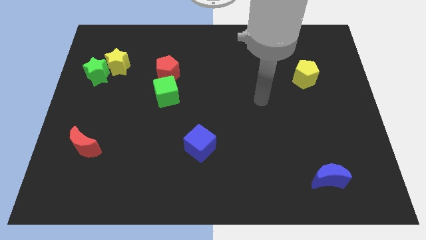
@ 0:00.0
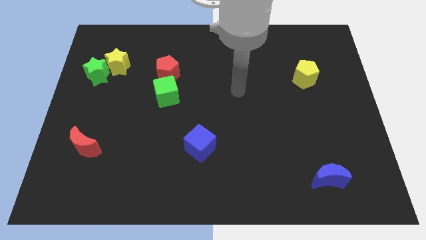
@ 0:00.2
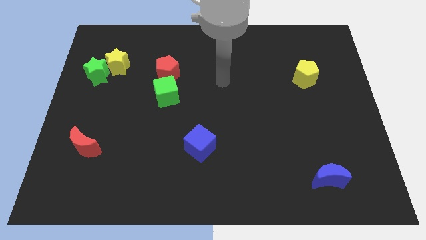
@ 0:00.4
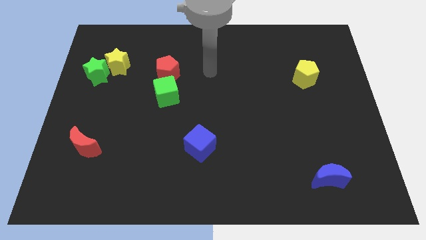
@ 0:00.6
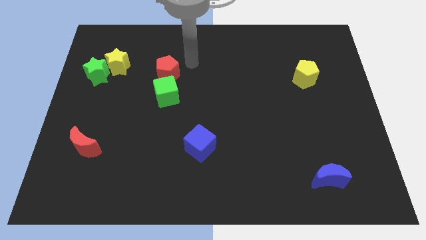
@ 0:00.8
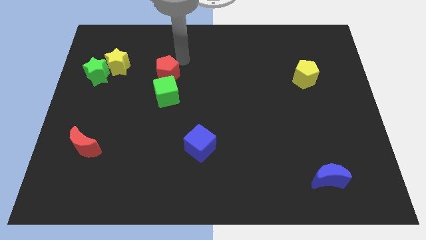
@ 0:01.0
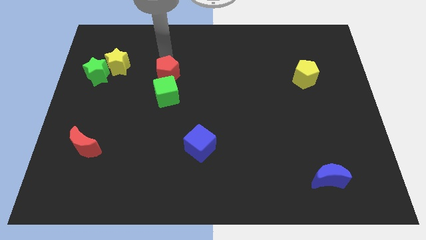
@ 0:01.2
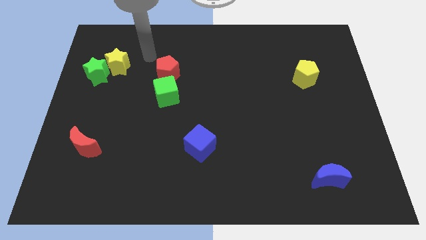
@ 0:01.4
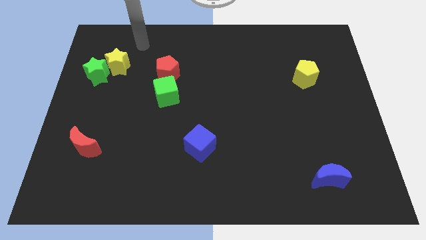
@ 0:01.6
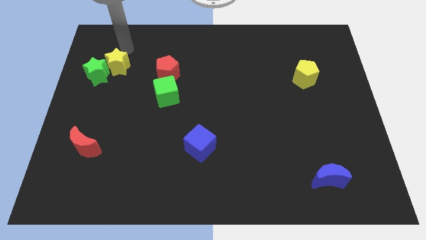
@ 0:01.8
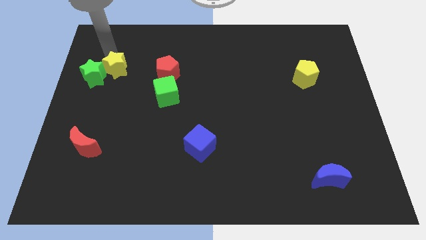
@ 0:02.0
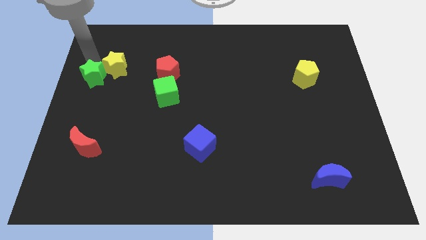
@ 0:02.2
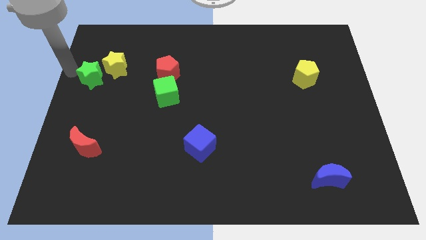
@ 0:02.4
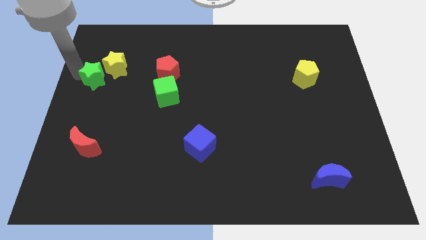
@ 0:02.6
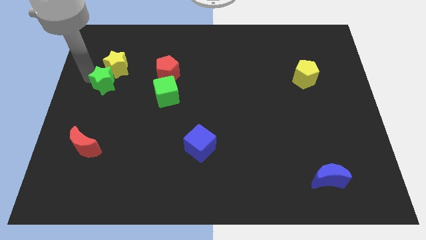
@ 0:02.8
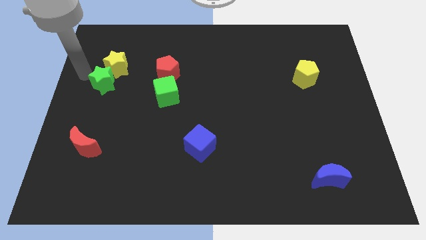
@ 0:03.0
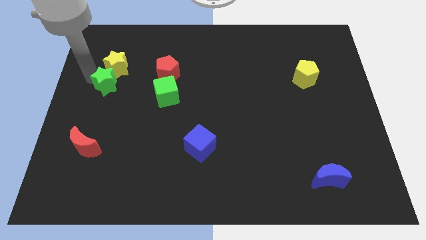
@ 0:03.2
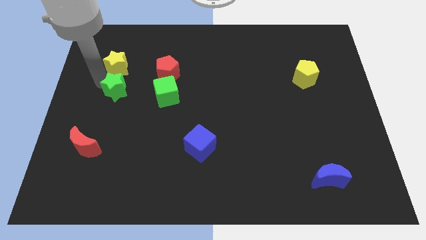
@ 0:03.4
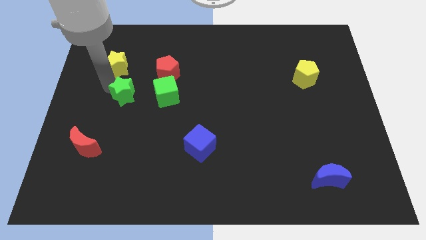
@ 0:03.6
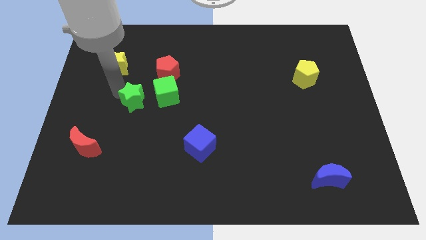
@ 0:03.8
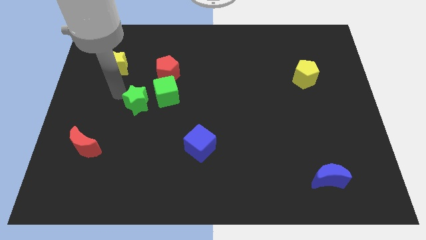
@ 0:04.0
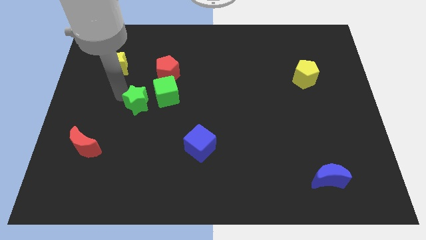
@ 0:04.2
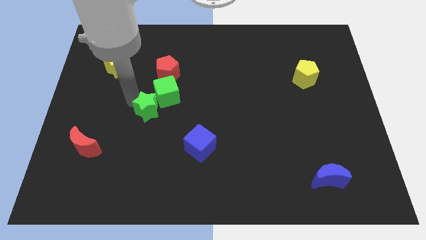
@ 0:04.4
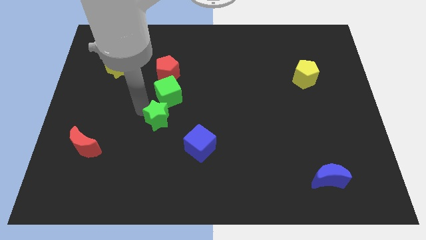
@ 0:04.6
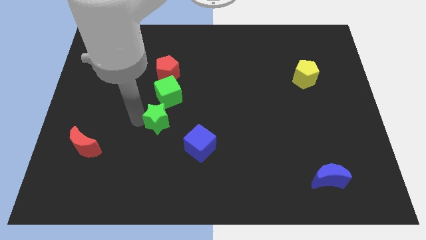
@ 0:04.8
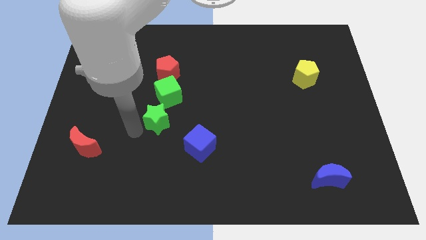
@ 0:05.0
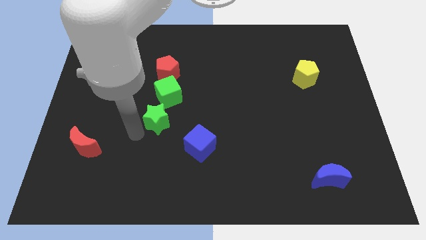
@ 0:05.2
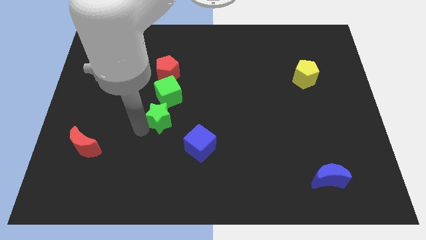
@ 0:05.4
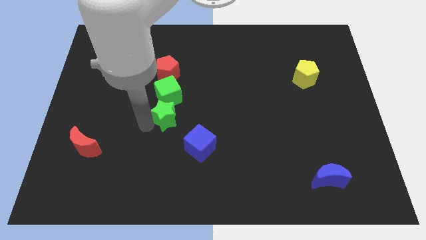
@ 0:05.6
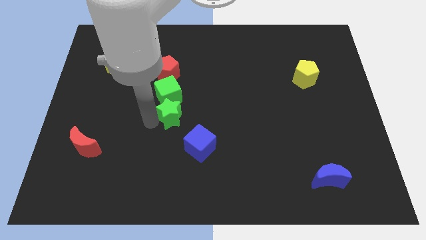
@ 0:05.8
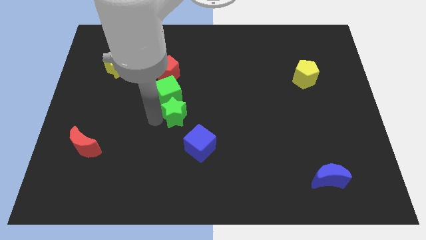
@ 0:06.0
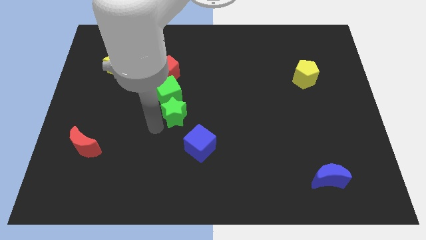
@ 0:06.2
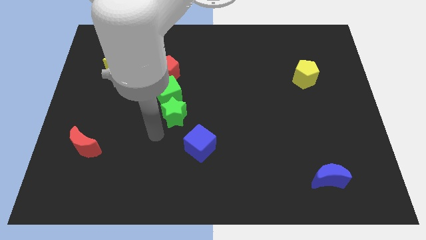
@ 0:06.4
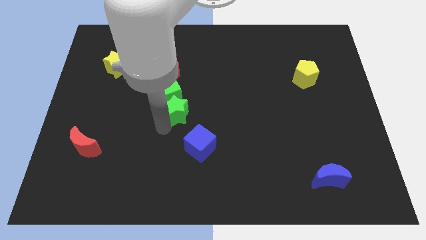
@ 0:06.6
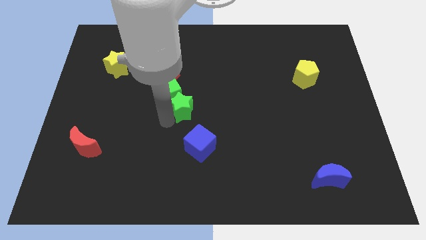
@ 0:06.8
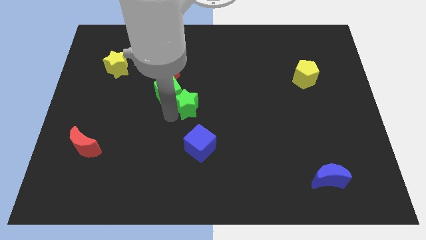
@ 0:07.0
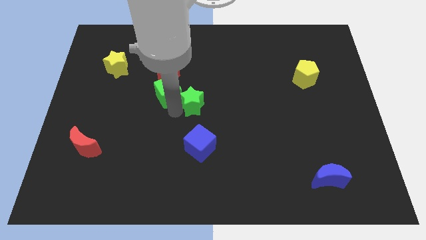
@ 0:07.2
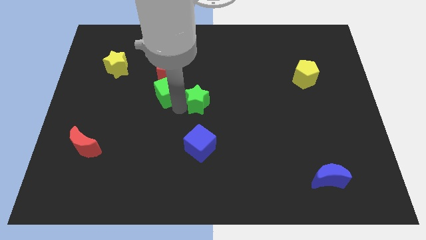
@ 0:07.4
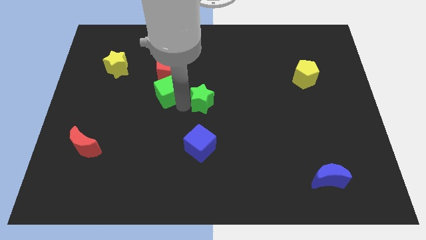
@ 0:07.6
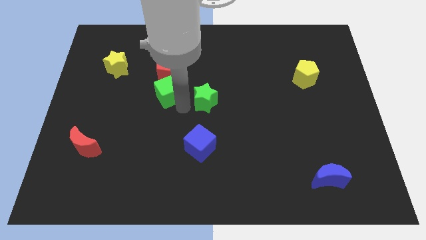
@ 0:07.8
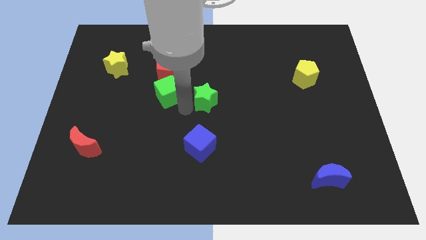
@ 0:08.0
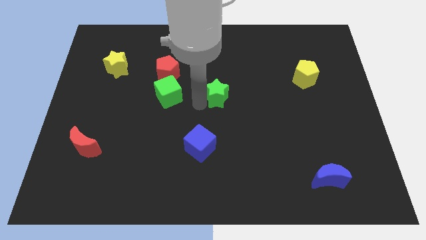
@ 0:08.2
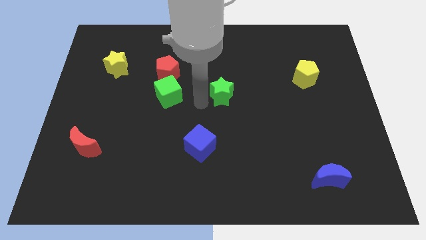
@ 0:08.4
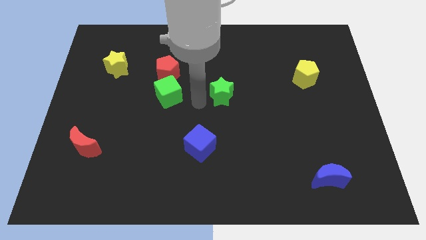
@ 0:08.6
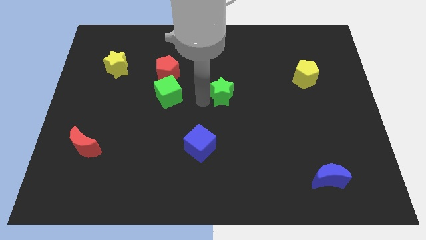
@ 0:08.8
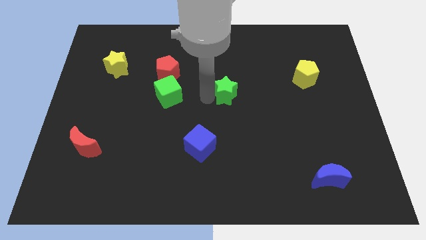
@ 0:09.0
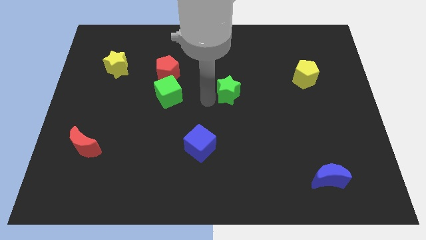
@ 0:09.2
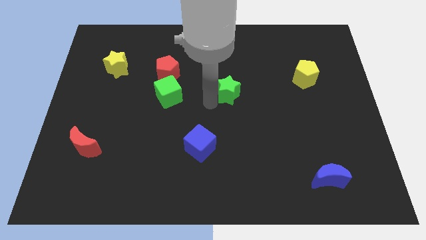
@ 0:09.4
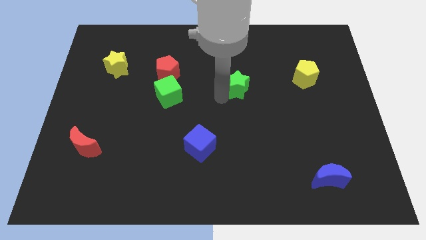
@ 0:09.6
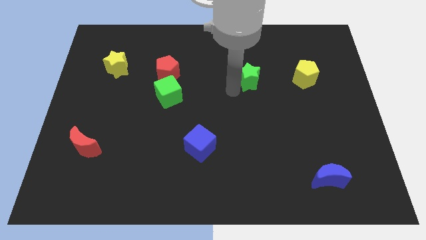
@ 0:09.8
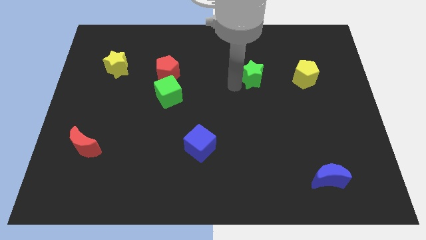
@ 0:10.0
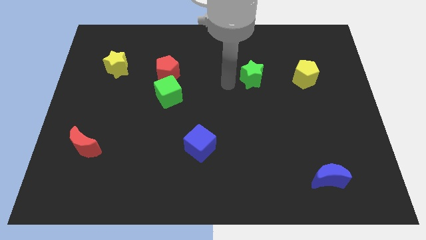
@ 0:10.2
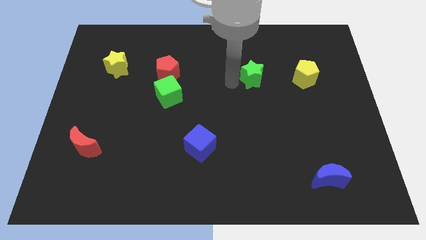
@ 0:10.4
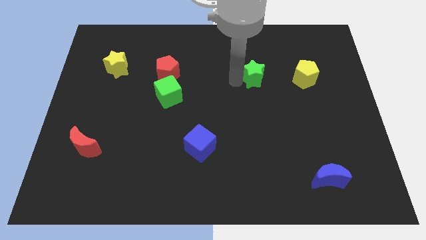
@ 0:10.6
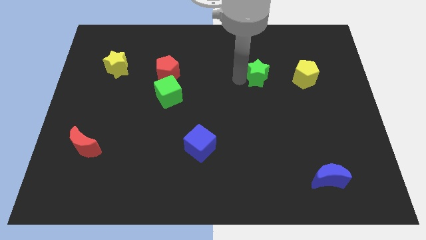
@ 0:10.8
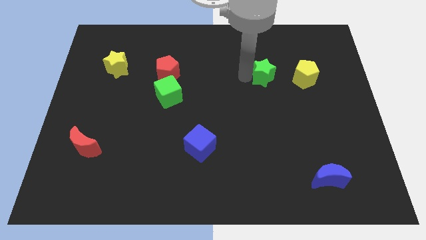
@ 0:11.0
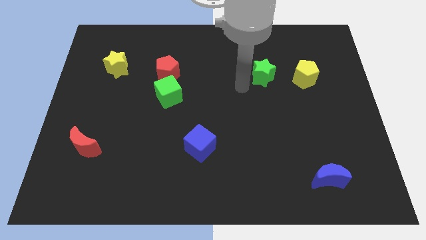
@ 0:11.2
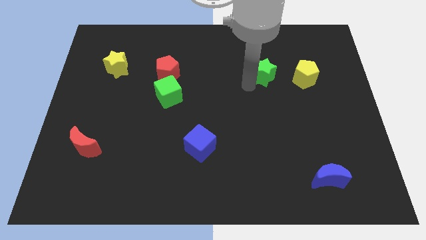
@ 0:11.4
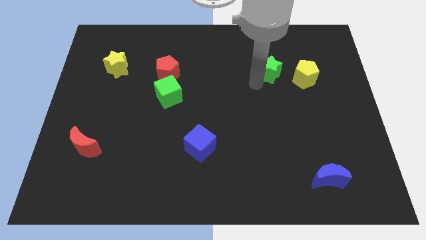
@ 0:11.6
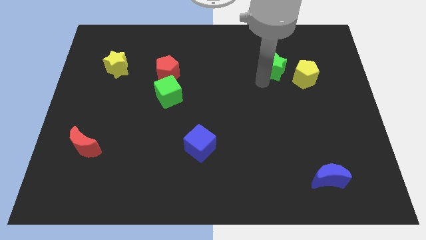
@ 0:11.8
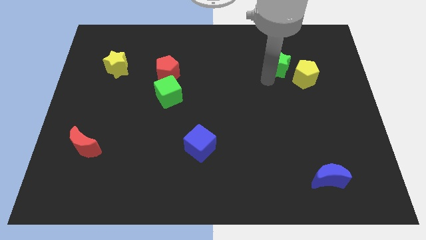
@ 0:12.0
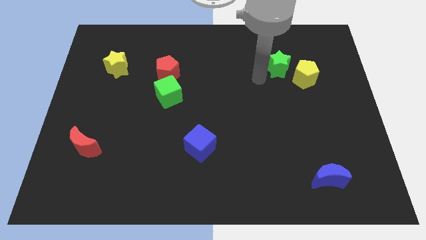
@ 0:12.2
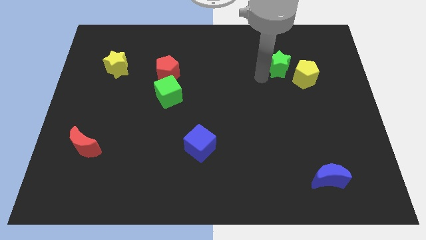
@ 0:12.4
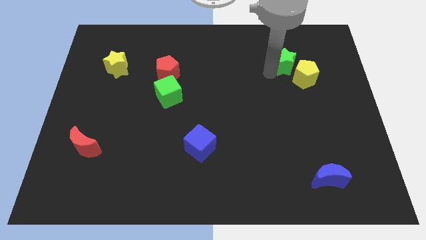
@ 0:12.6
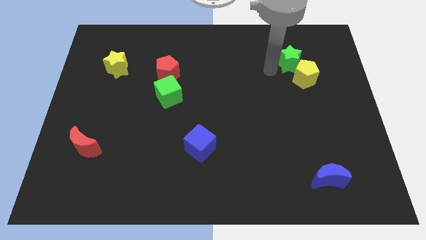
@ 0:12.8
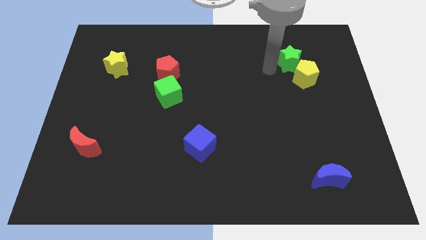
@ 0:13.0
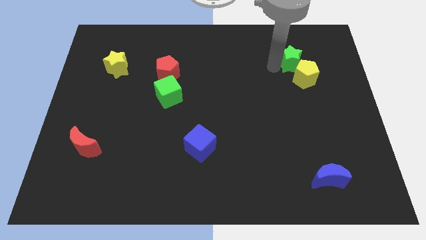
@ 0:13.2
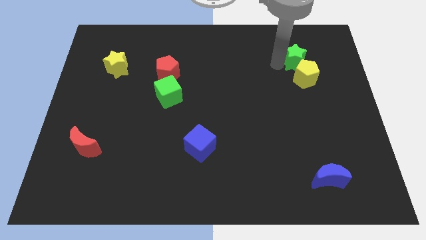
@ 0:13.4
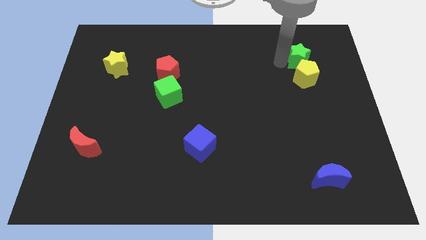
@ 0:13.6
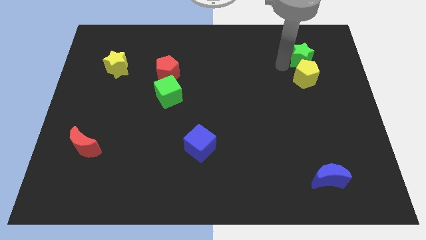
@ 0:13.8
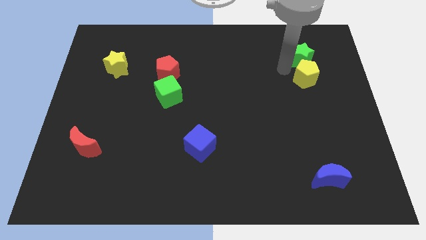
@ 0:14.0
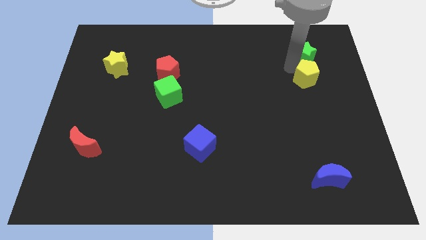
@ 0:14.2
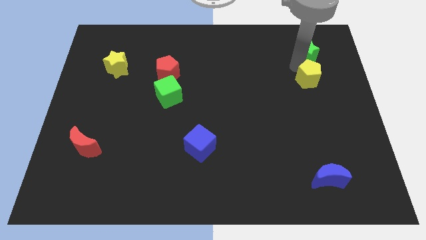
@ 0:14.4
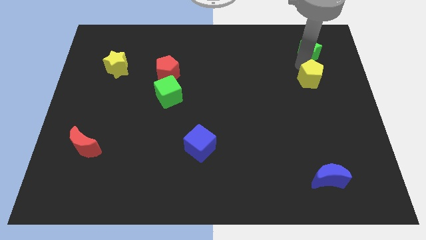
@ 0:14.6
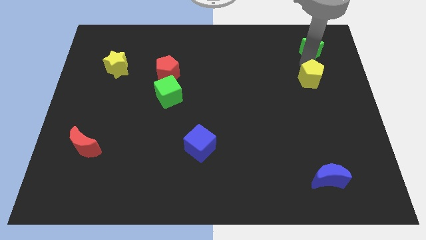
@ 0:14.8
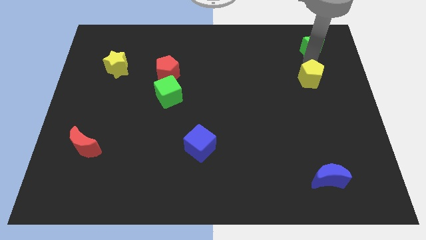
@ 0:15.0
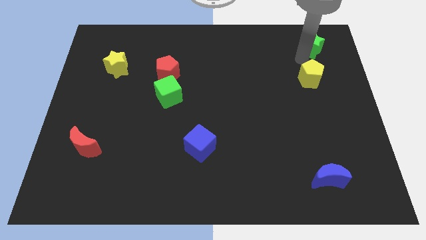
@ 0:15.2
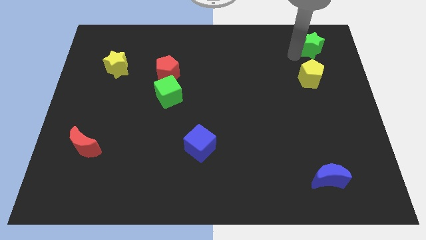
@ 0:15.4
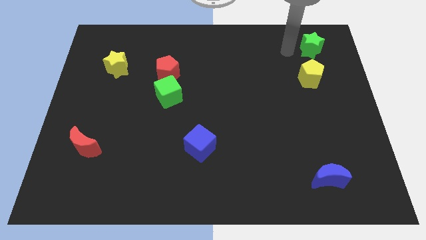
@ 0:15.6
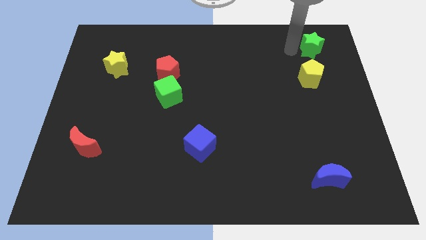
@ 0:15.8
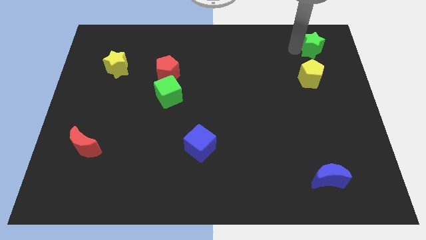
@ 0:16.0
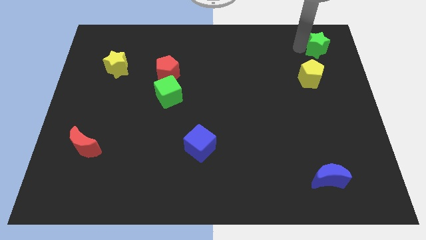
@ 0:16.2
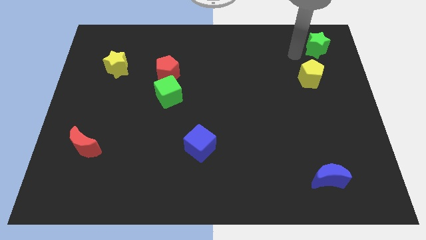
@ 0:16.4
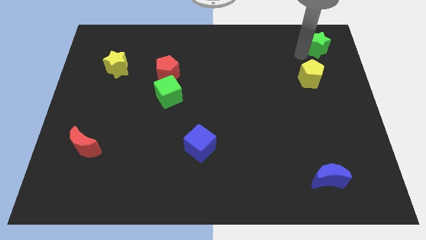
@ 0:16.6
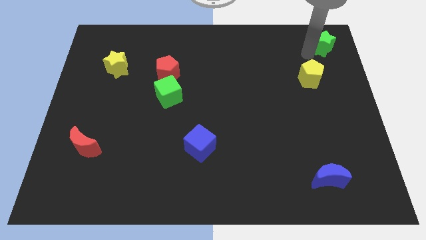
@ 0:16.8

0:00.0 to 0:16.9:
move the green star to the top right
